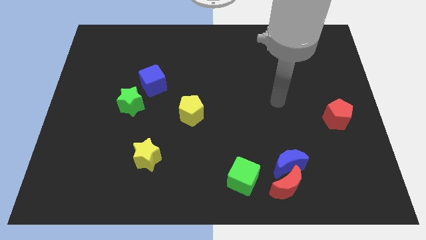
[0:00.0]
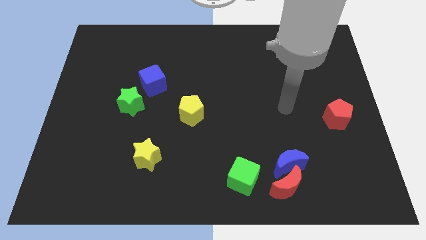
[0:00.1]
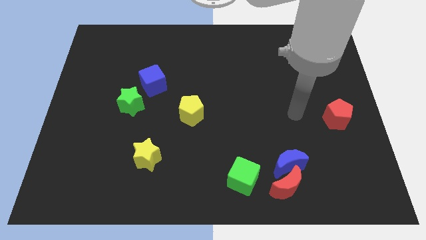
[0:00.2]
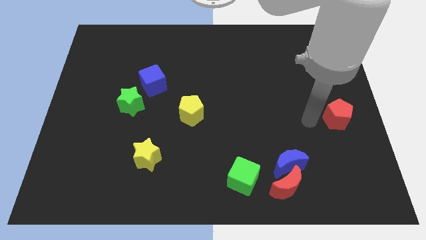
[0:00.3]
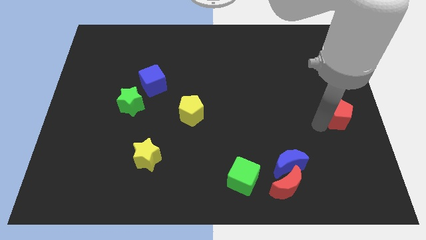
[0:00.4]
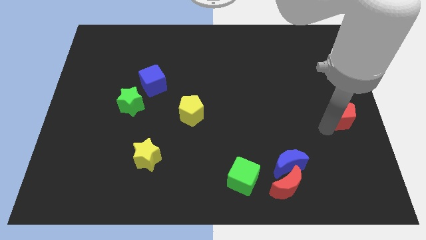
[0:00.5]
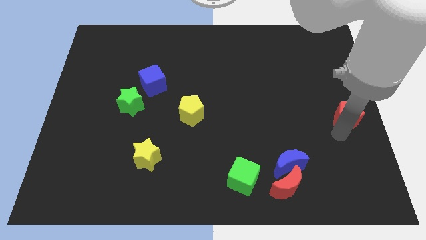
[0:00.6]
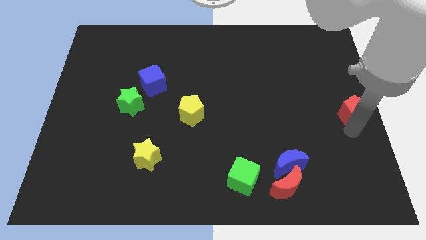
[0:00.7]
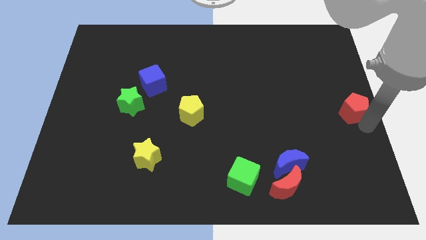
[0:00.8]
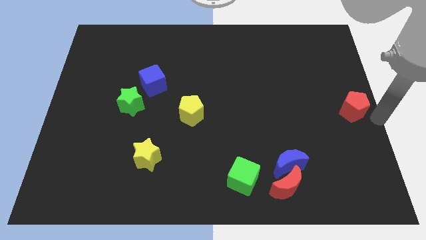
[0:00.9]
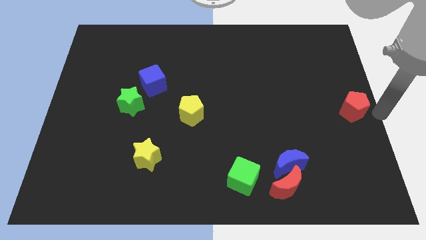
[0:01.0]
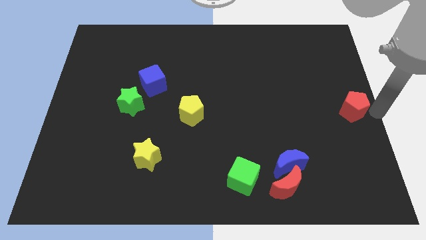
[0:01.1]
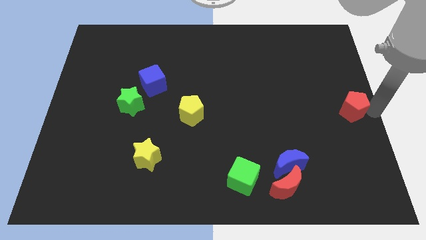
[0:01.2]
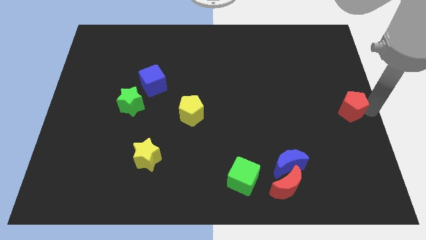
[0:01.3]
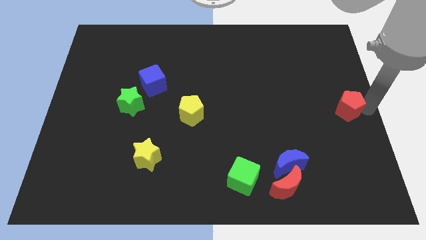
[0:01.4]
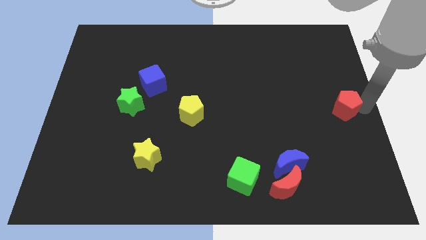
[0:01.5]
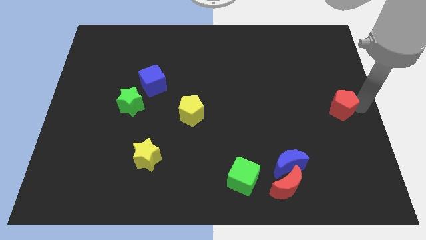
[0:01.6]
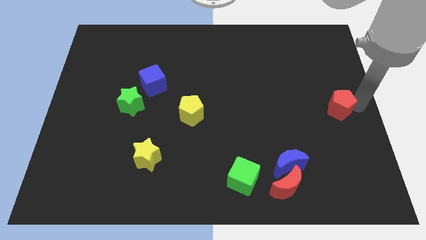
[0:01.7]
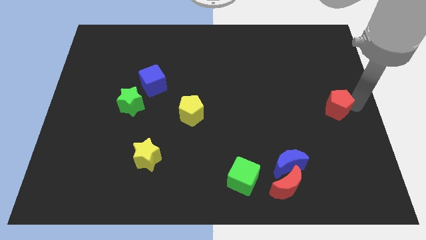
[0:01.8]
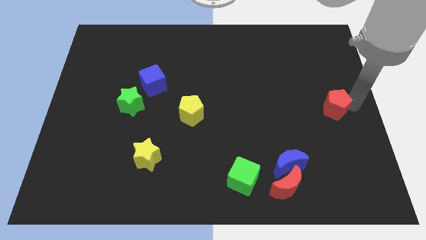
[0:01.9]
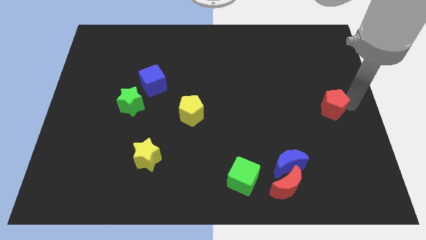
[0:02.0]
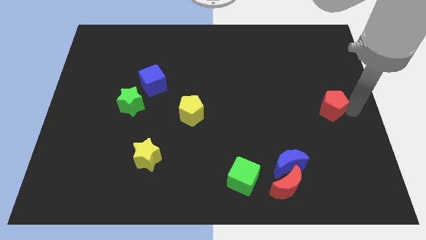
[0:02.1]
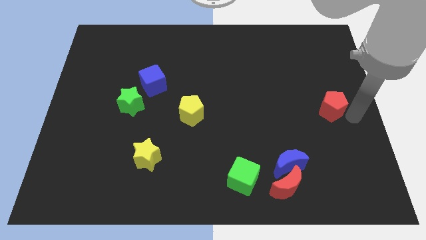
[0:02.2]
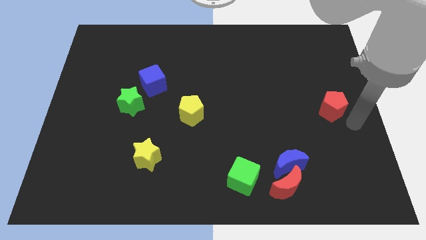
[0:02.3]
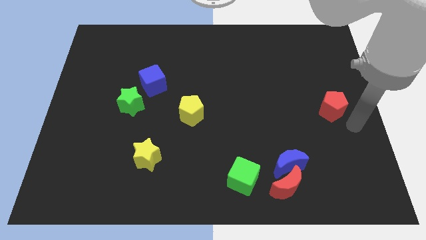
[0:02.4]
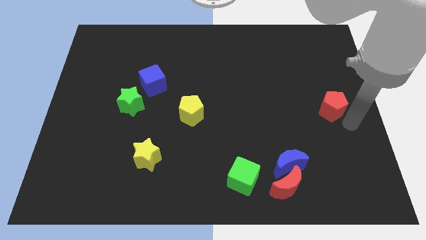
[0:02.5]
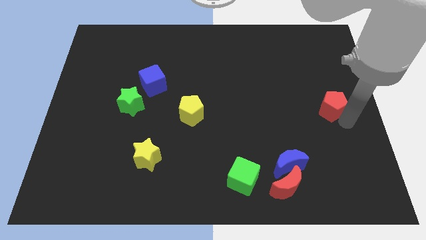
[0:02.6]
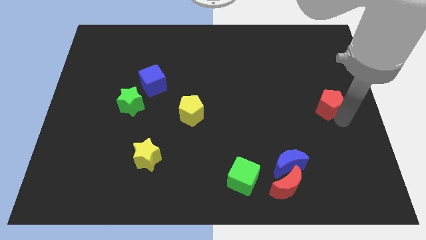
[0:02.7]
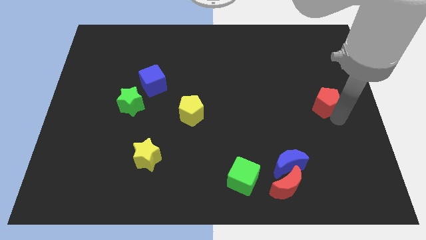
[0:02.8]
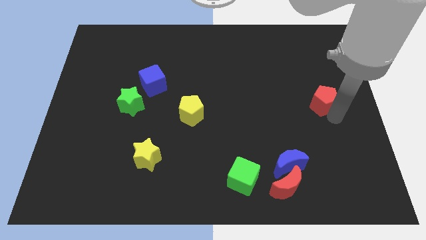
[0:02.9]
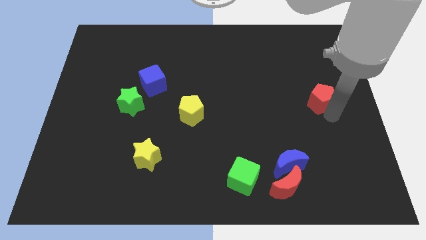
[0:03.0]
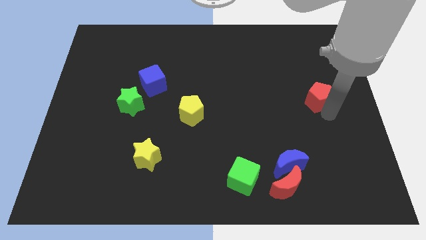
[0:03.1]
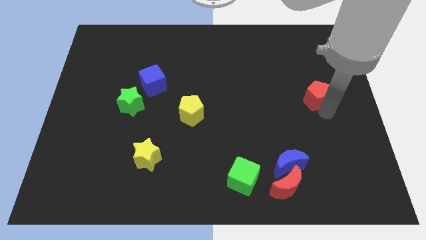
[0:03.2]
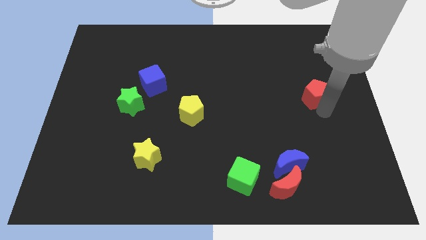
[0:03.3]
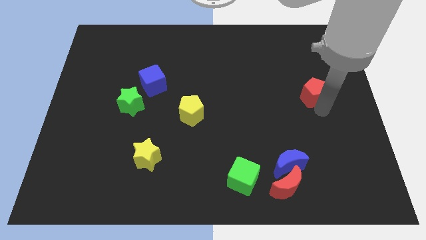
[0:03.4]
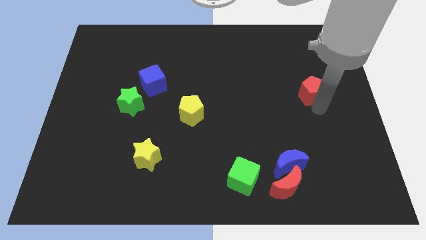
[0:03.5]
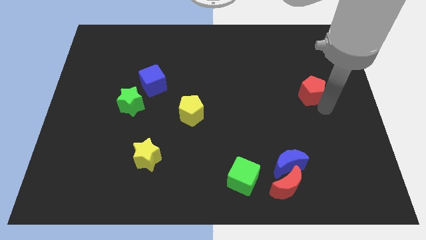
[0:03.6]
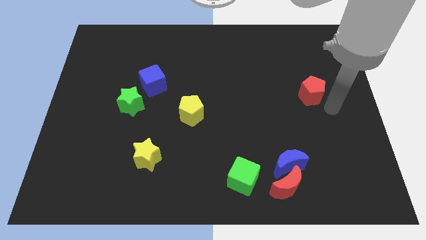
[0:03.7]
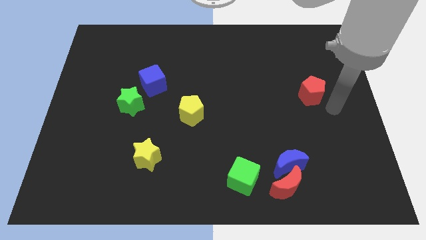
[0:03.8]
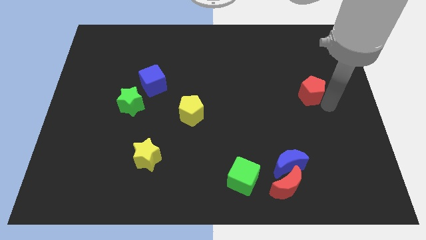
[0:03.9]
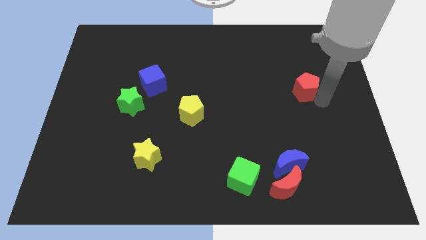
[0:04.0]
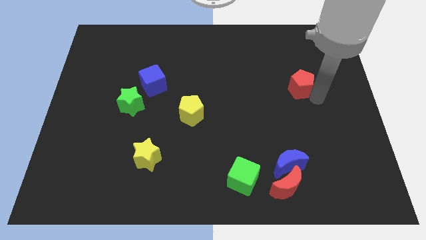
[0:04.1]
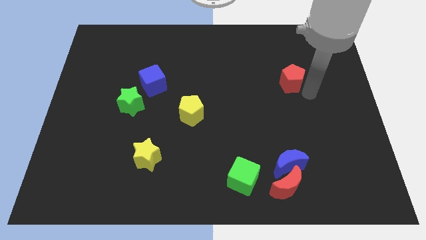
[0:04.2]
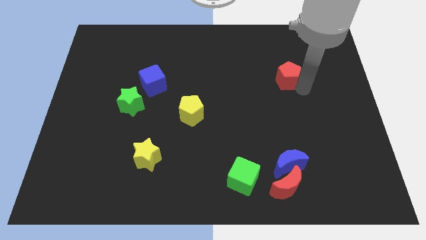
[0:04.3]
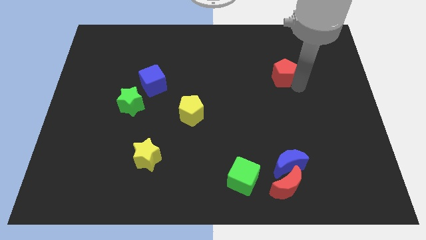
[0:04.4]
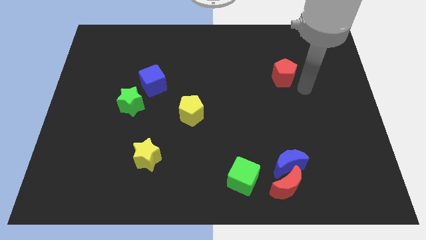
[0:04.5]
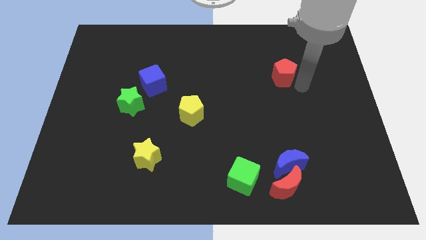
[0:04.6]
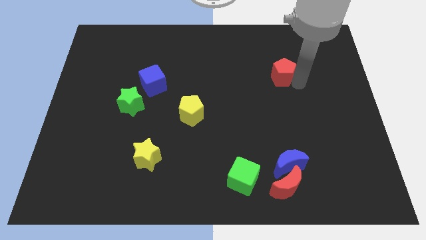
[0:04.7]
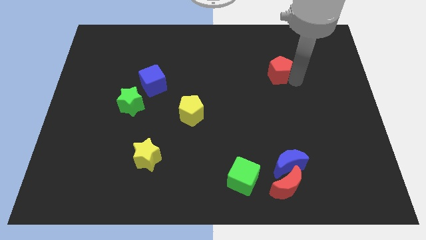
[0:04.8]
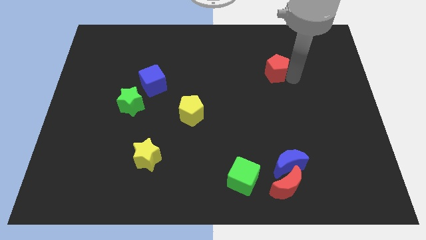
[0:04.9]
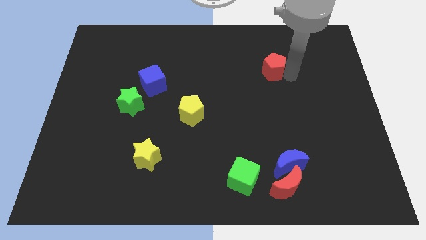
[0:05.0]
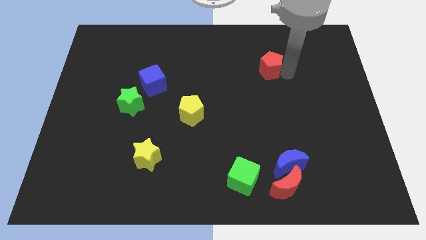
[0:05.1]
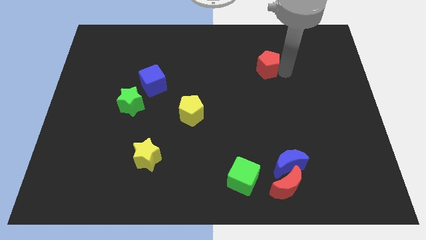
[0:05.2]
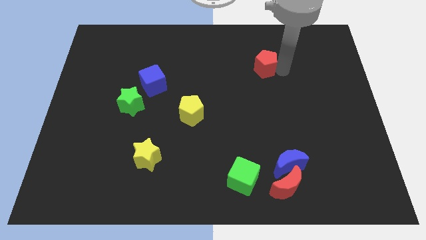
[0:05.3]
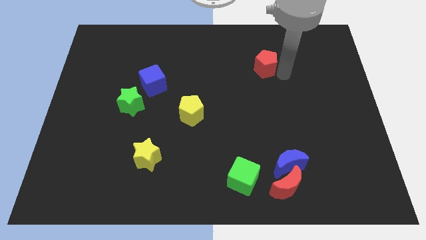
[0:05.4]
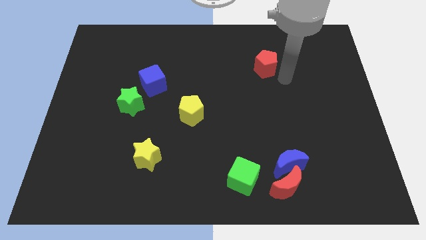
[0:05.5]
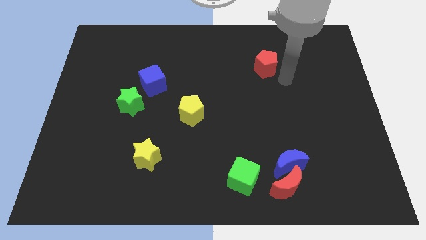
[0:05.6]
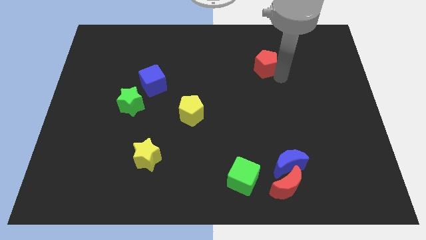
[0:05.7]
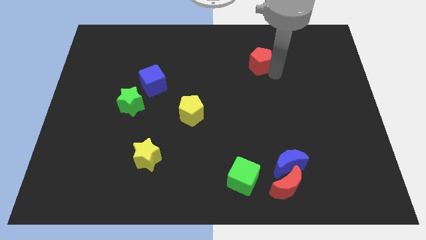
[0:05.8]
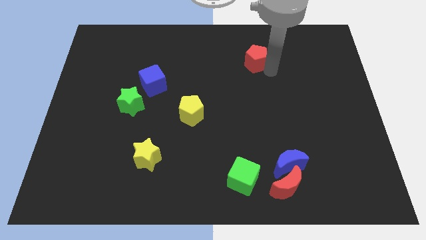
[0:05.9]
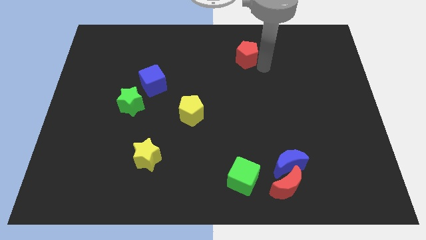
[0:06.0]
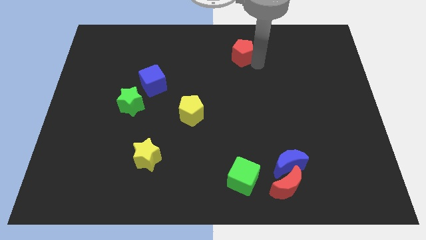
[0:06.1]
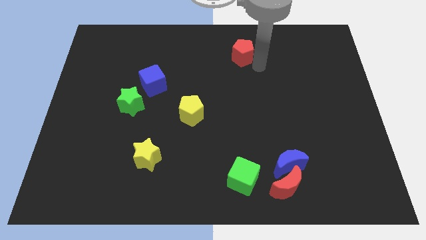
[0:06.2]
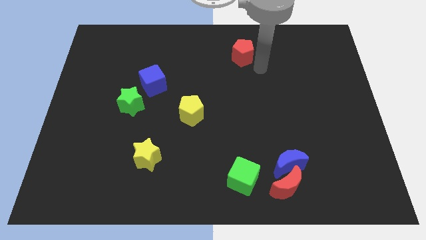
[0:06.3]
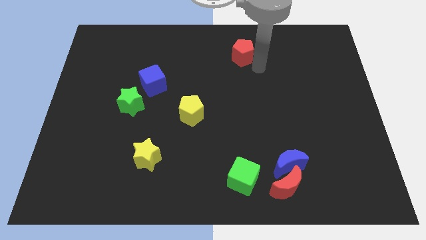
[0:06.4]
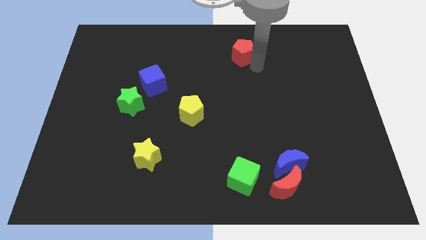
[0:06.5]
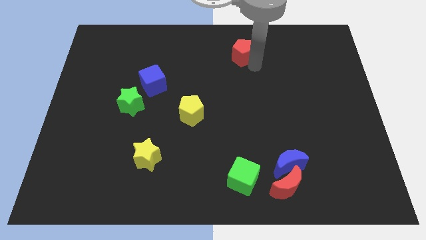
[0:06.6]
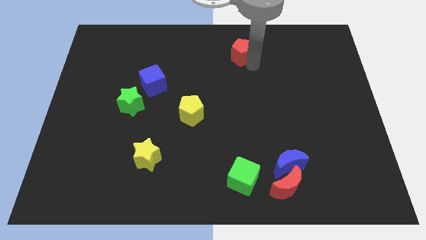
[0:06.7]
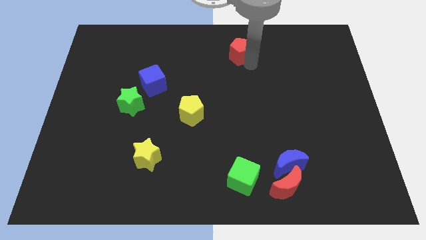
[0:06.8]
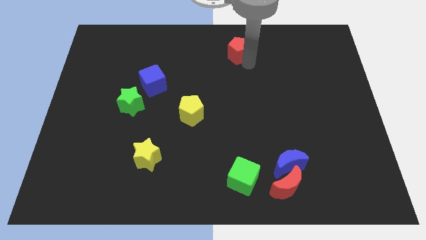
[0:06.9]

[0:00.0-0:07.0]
push the red pentagon to the top
